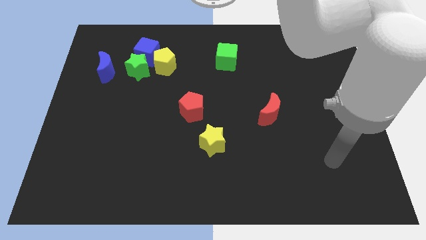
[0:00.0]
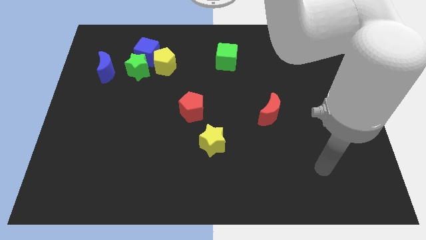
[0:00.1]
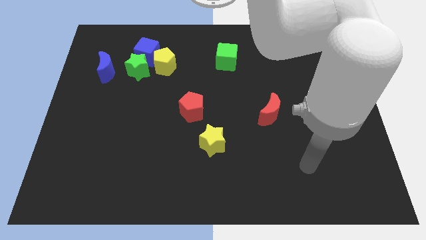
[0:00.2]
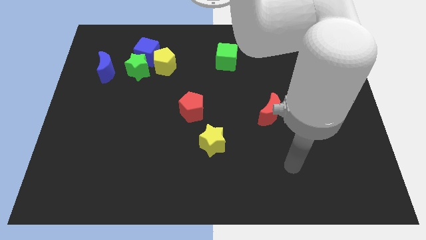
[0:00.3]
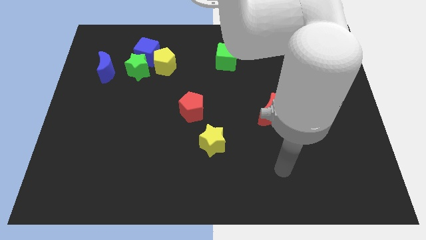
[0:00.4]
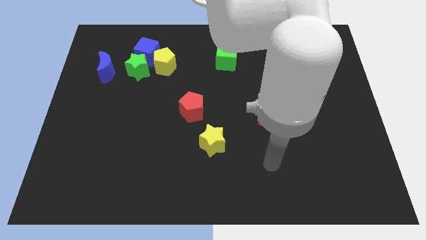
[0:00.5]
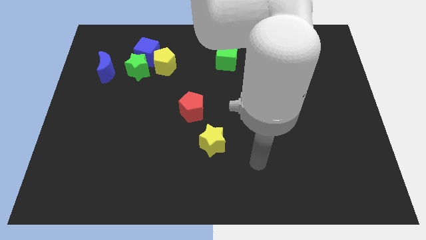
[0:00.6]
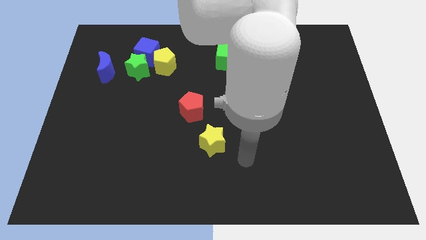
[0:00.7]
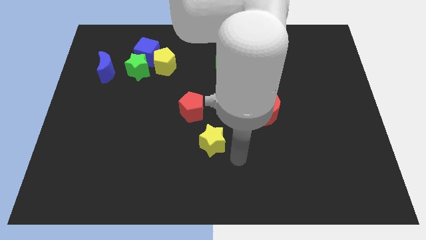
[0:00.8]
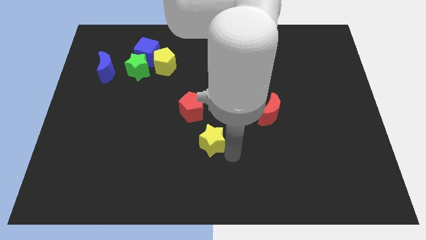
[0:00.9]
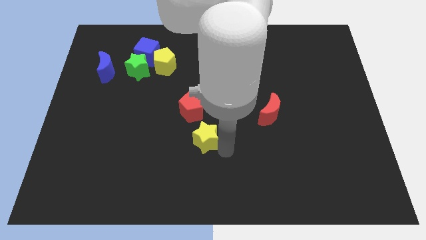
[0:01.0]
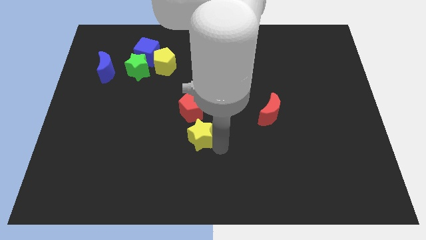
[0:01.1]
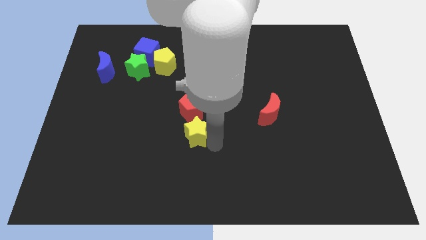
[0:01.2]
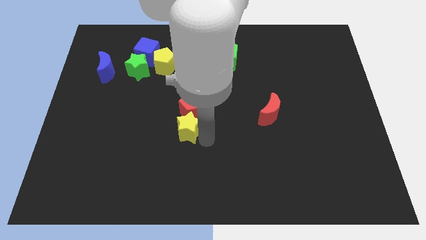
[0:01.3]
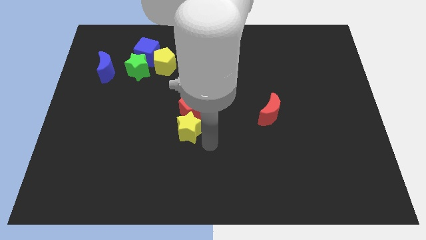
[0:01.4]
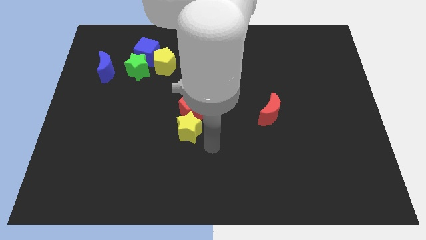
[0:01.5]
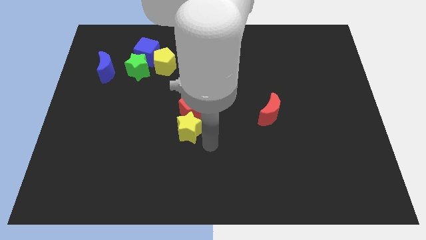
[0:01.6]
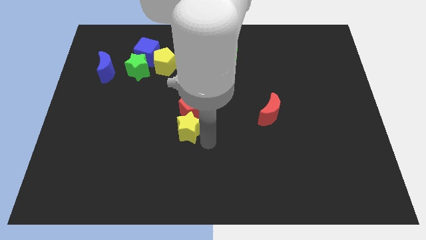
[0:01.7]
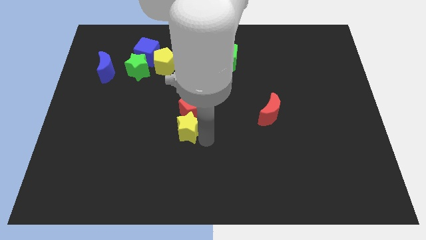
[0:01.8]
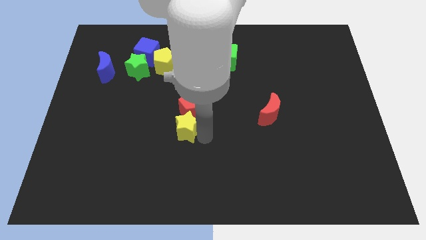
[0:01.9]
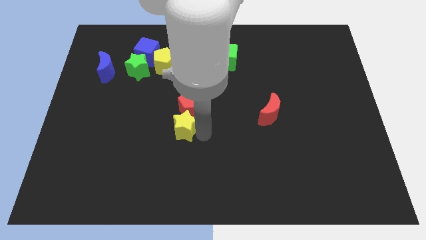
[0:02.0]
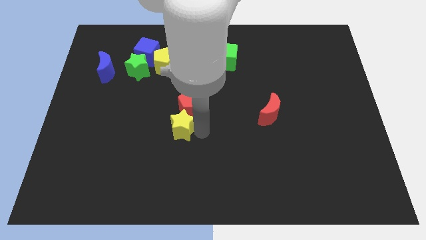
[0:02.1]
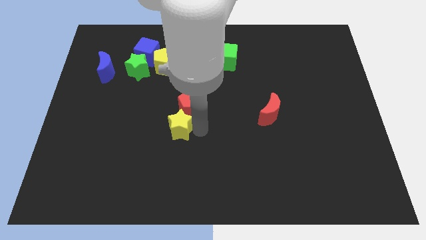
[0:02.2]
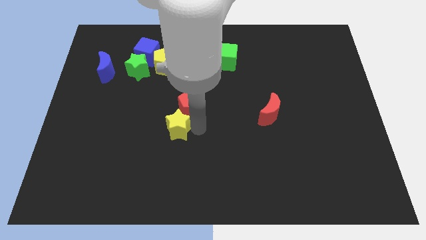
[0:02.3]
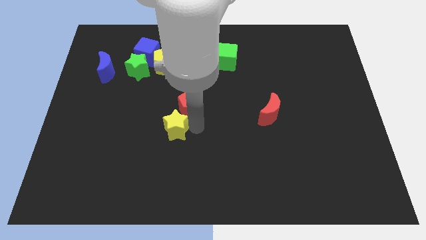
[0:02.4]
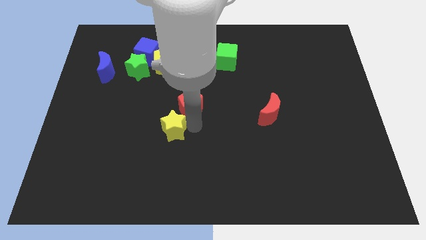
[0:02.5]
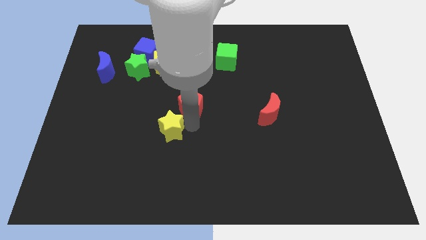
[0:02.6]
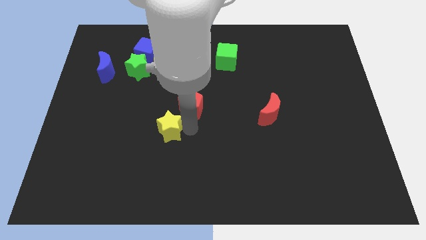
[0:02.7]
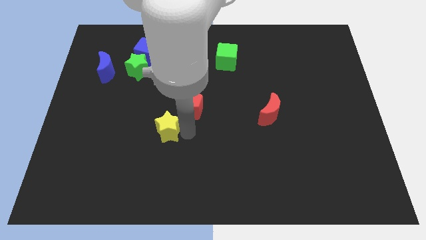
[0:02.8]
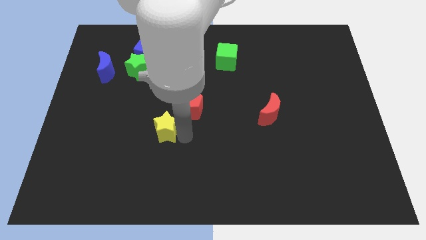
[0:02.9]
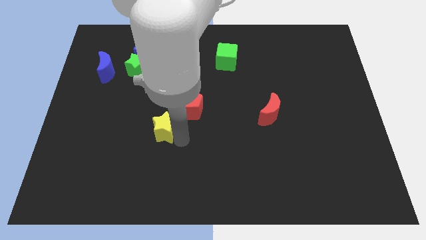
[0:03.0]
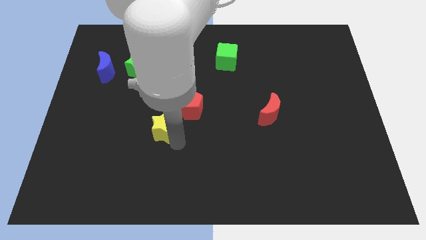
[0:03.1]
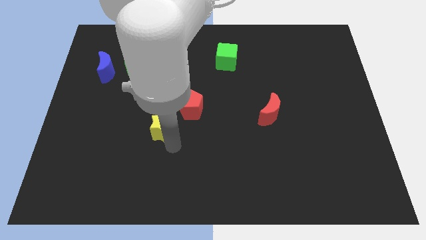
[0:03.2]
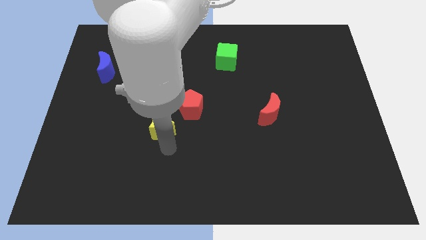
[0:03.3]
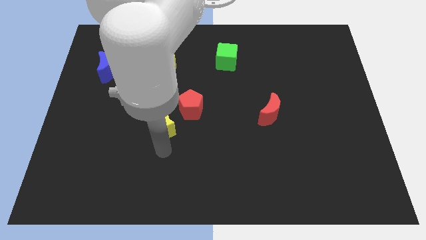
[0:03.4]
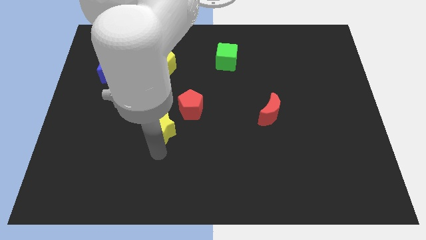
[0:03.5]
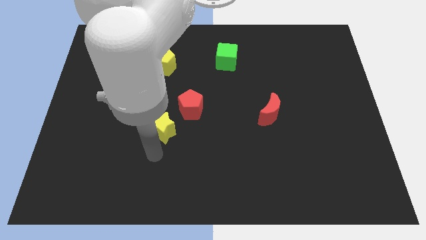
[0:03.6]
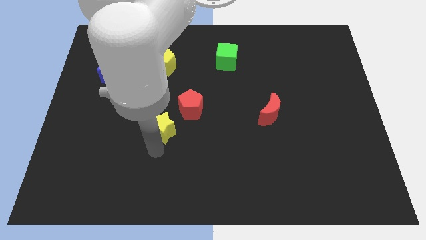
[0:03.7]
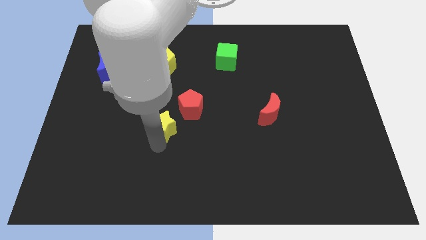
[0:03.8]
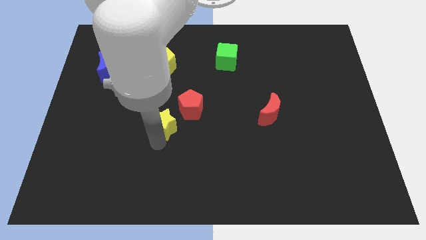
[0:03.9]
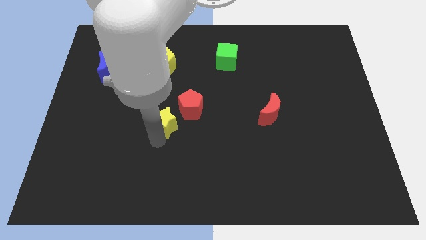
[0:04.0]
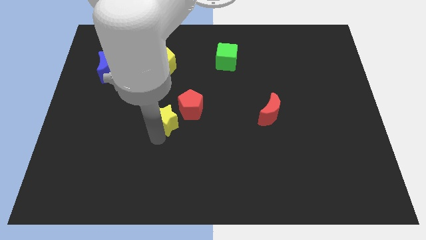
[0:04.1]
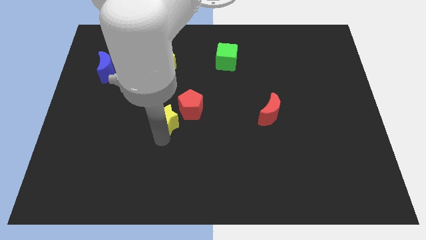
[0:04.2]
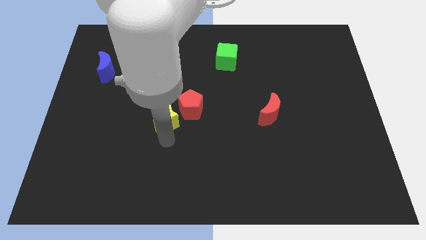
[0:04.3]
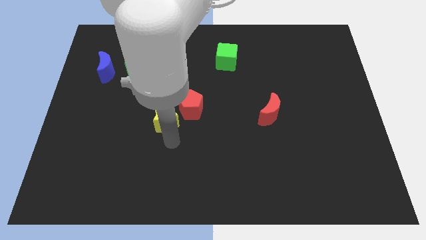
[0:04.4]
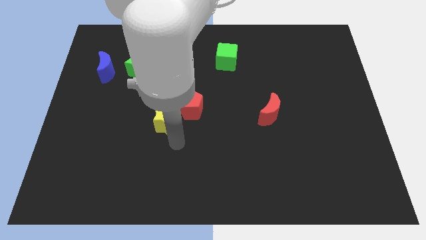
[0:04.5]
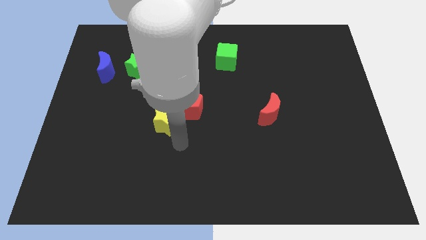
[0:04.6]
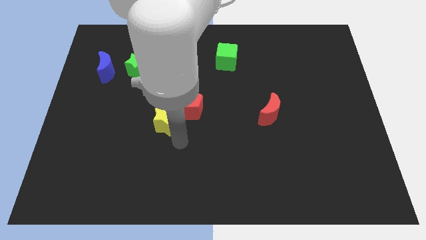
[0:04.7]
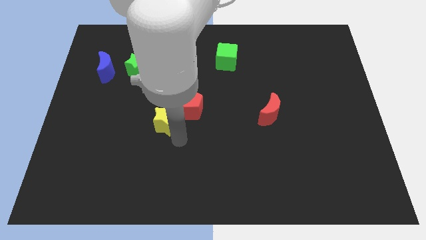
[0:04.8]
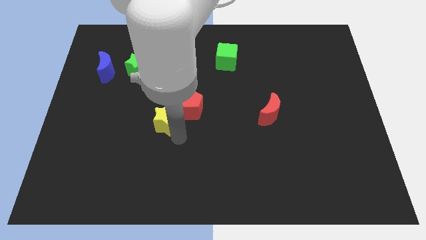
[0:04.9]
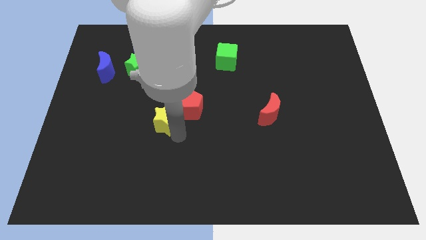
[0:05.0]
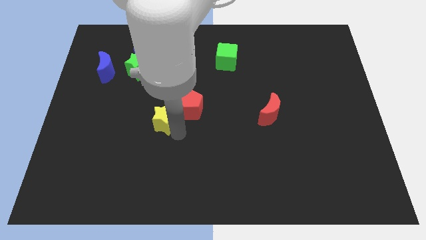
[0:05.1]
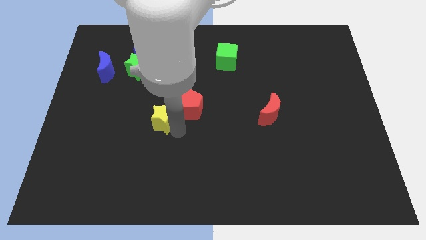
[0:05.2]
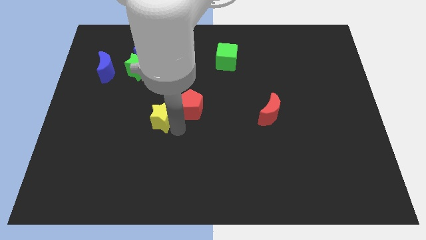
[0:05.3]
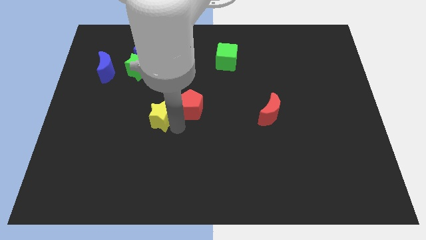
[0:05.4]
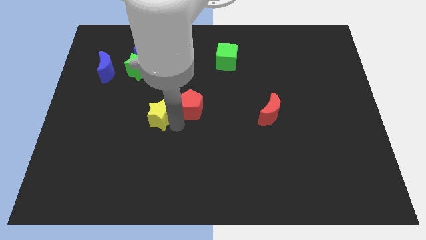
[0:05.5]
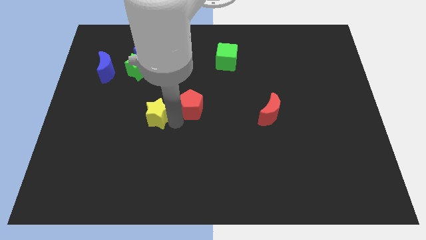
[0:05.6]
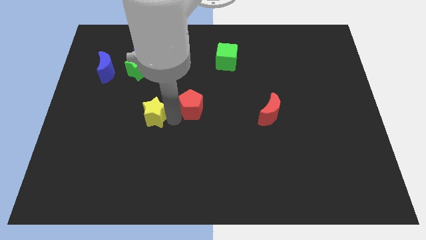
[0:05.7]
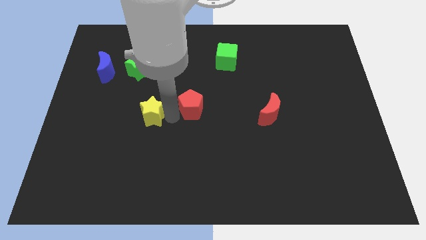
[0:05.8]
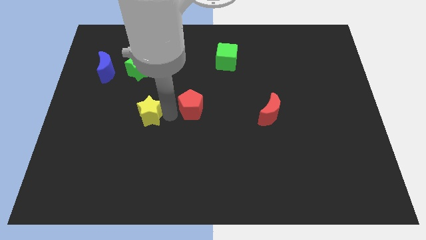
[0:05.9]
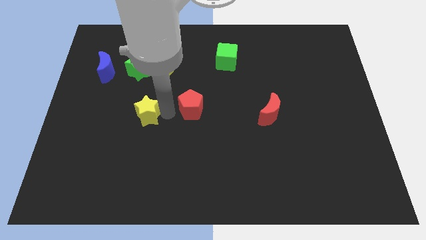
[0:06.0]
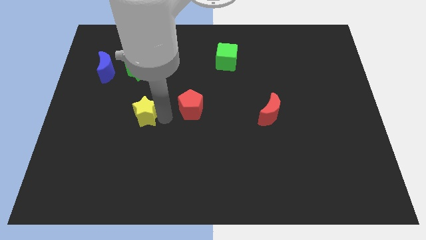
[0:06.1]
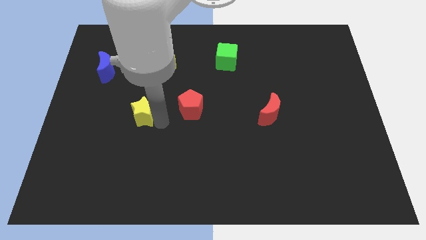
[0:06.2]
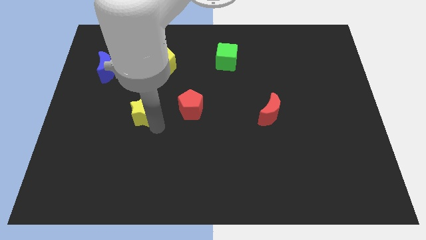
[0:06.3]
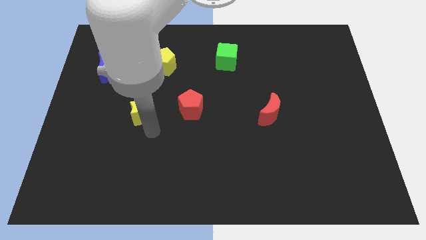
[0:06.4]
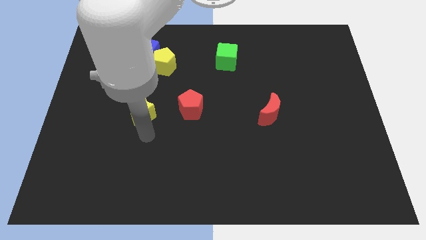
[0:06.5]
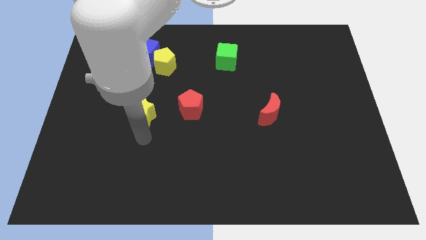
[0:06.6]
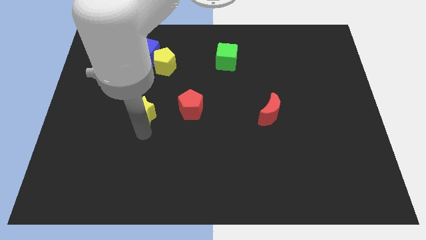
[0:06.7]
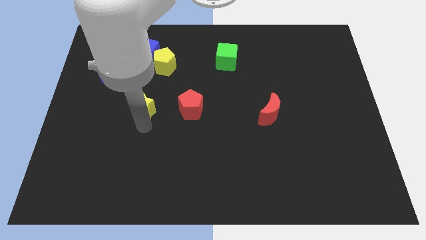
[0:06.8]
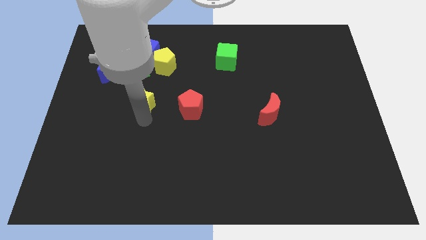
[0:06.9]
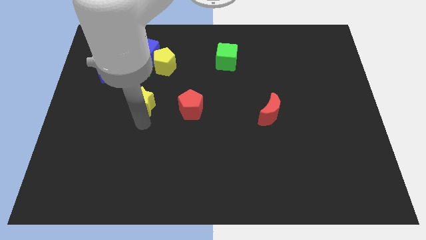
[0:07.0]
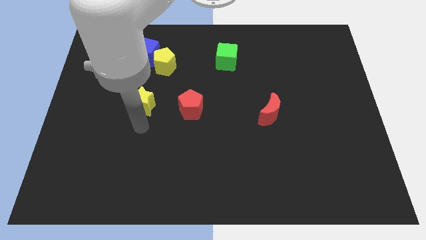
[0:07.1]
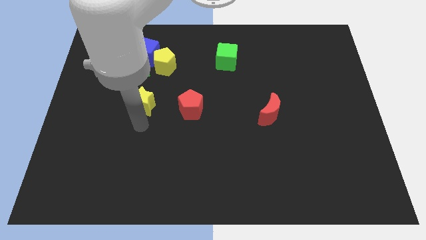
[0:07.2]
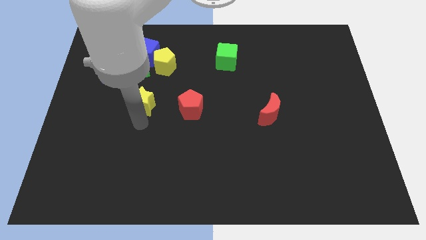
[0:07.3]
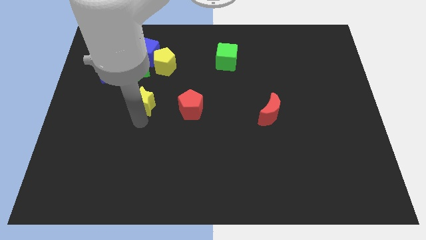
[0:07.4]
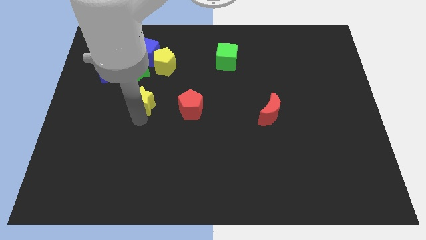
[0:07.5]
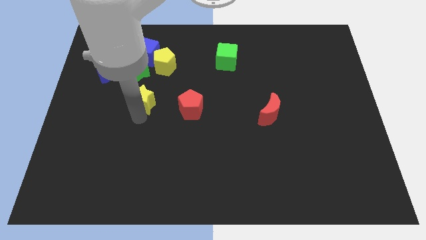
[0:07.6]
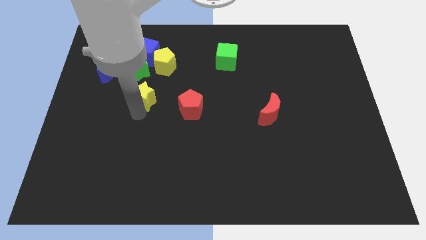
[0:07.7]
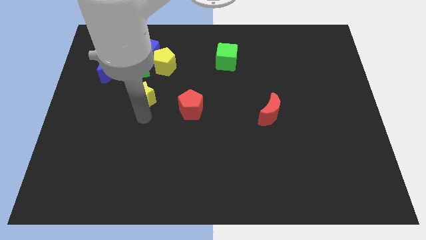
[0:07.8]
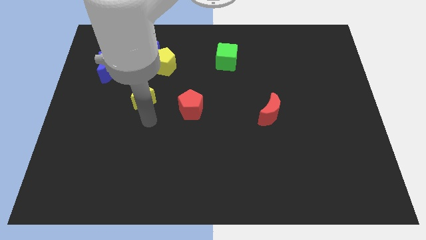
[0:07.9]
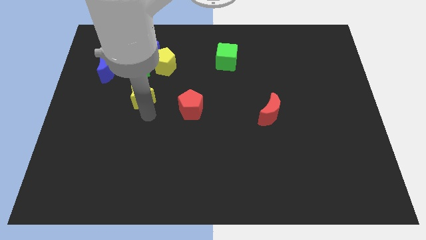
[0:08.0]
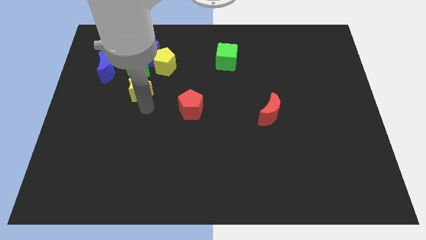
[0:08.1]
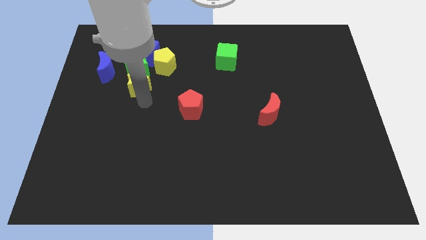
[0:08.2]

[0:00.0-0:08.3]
push the yellow star next to the green star

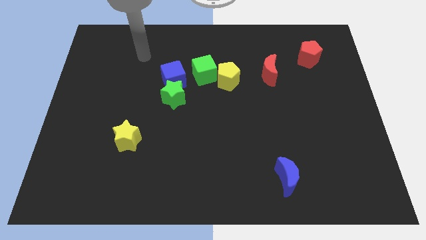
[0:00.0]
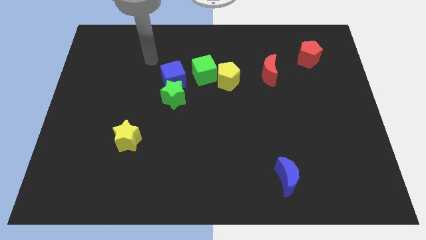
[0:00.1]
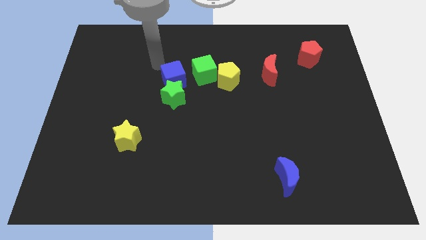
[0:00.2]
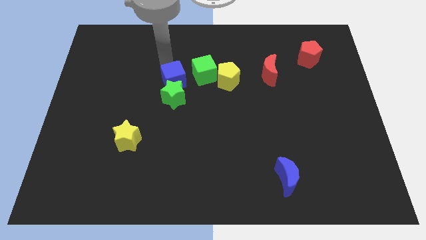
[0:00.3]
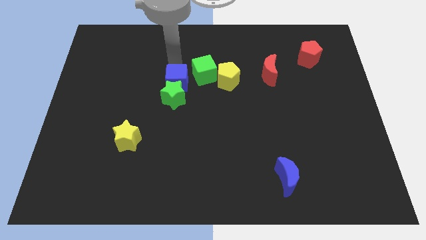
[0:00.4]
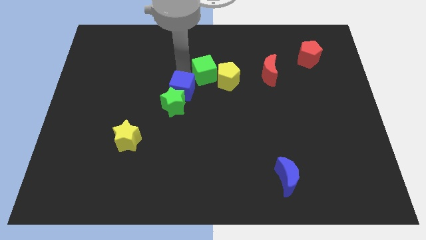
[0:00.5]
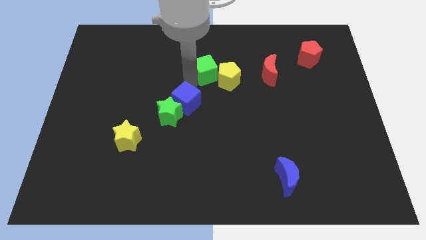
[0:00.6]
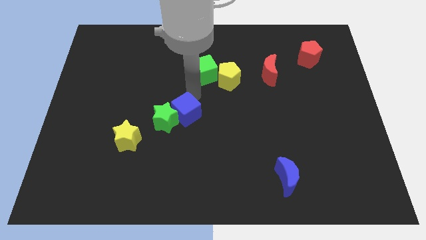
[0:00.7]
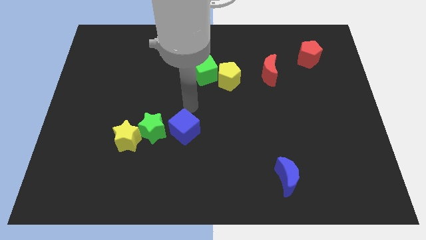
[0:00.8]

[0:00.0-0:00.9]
put the green star next to the yellow star
